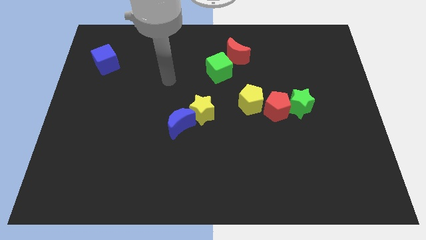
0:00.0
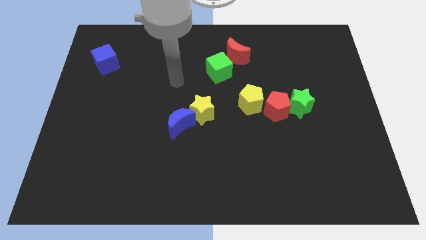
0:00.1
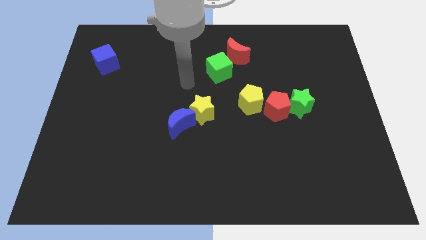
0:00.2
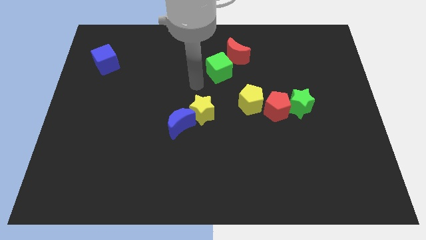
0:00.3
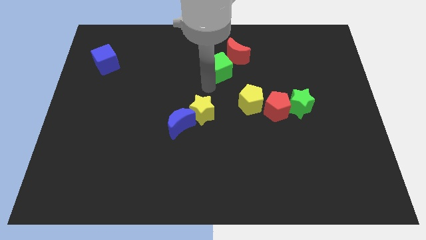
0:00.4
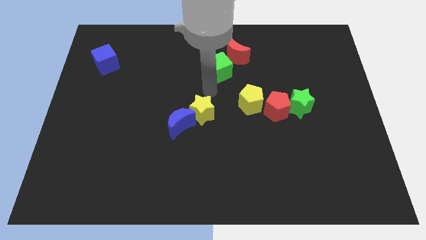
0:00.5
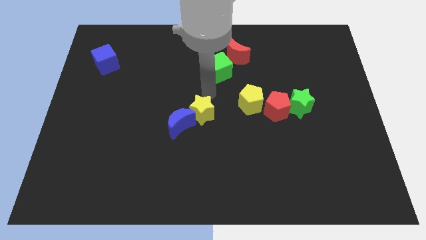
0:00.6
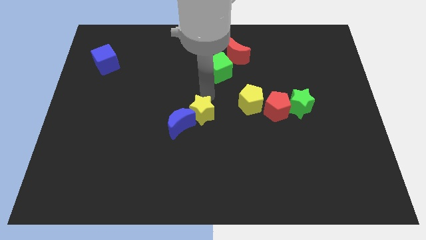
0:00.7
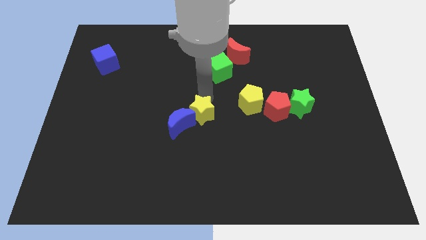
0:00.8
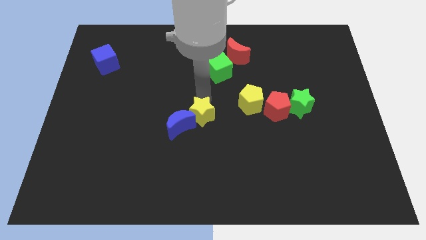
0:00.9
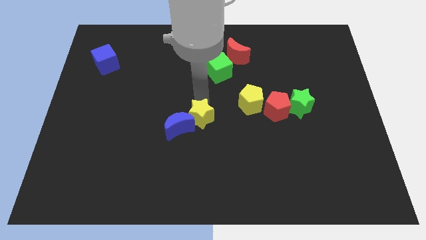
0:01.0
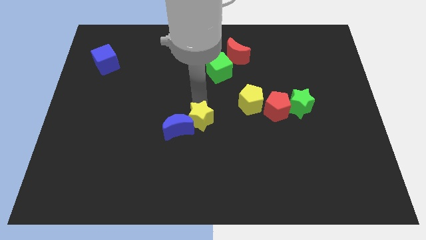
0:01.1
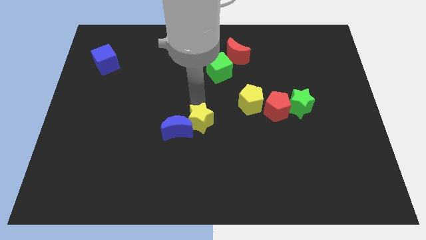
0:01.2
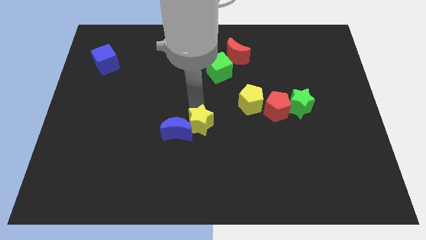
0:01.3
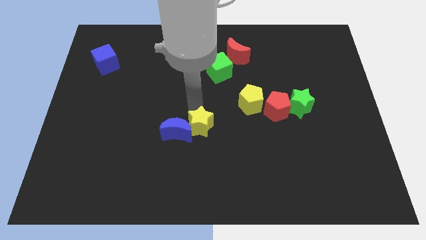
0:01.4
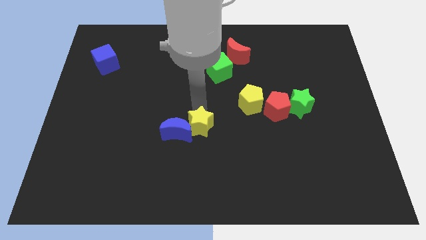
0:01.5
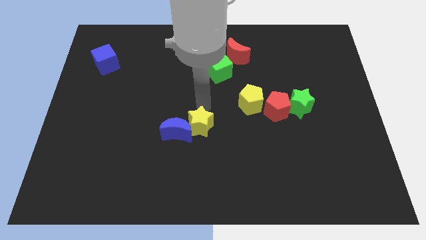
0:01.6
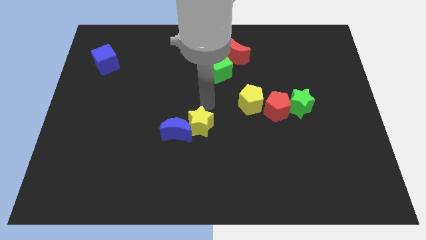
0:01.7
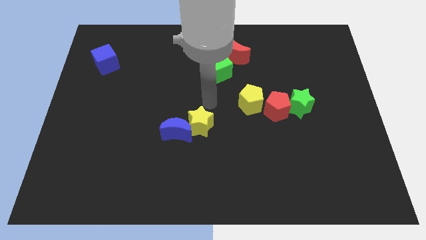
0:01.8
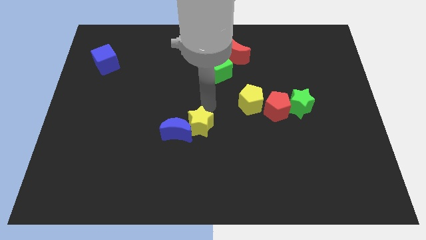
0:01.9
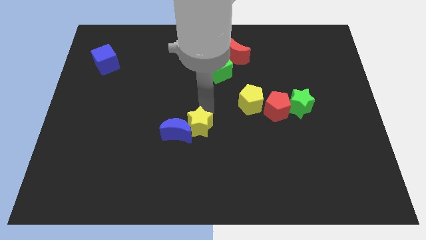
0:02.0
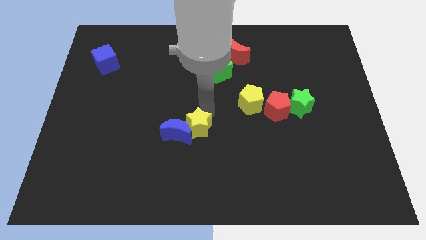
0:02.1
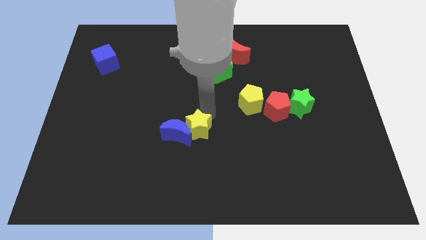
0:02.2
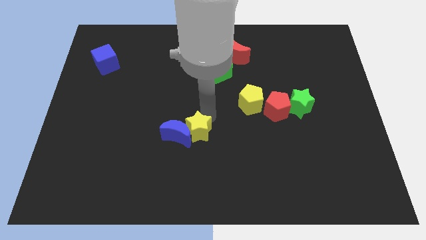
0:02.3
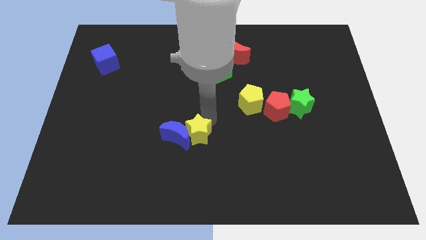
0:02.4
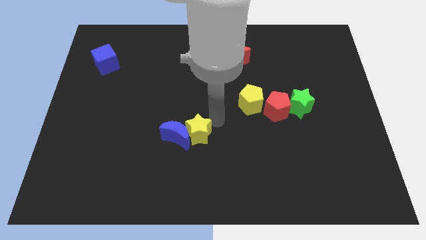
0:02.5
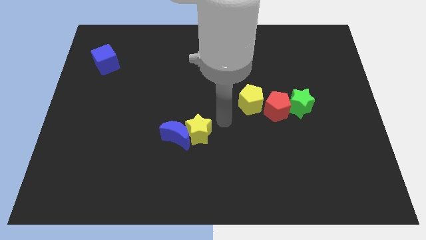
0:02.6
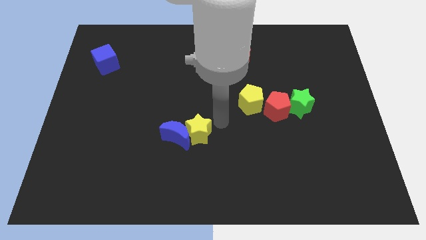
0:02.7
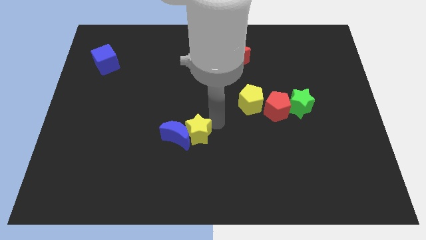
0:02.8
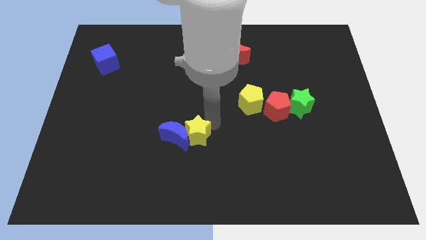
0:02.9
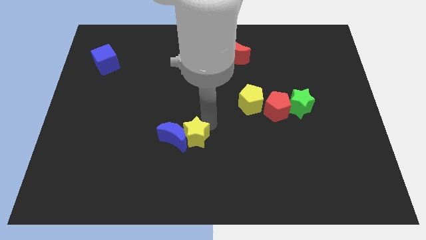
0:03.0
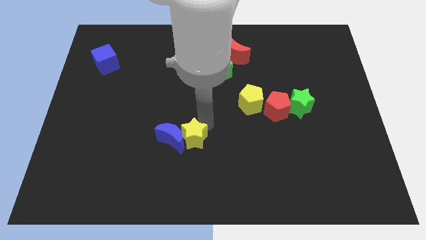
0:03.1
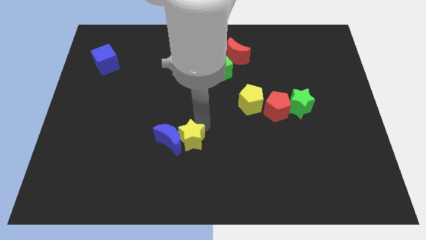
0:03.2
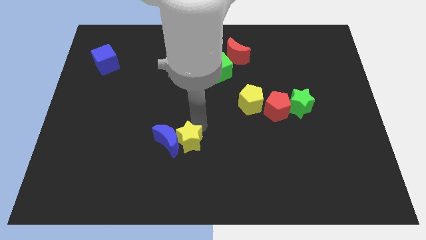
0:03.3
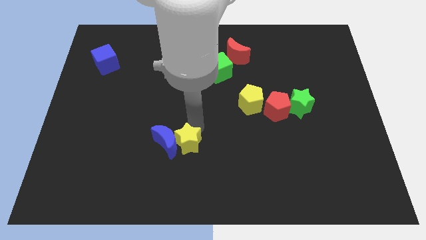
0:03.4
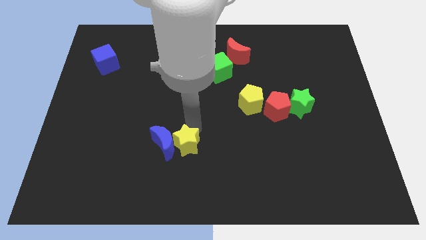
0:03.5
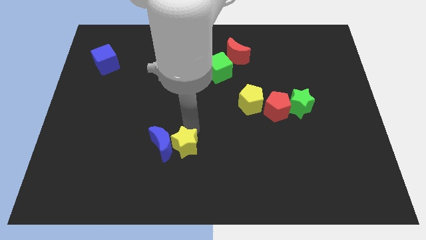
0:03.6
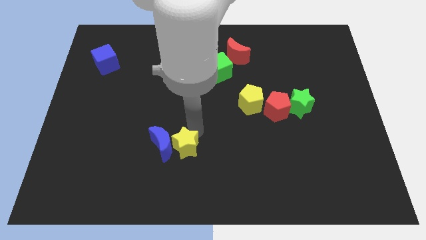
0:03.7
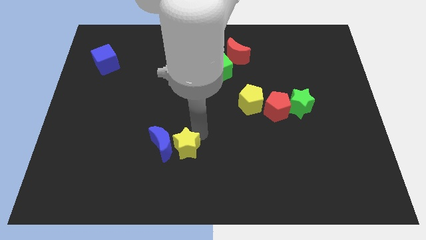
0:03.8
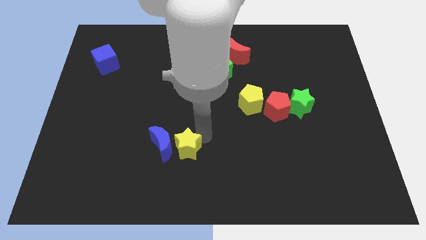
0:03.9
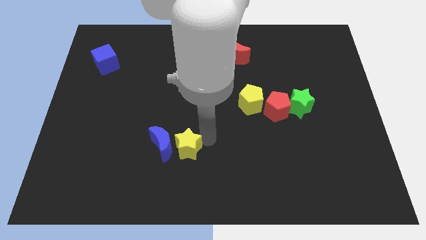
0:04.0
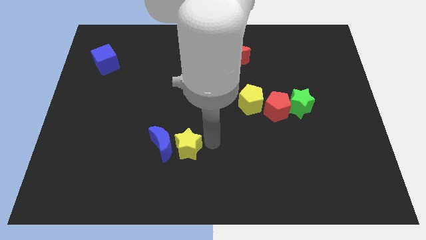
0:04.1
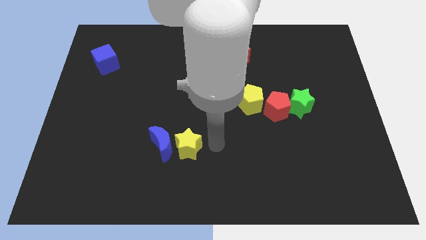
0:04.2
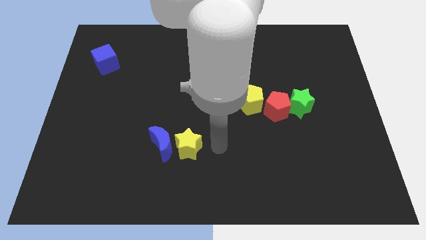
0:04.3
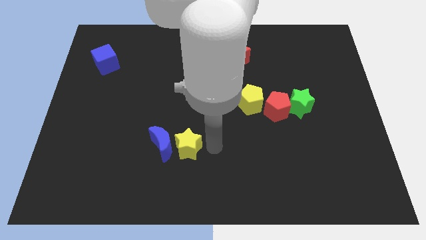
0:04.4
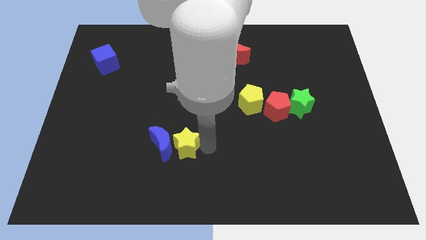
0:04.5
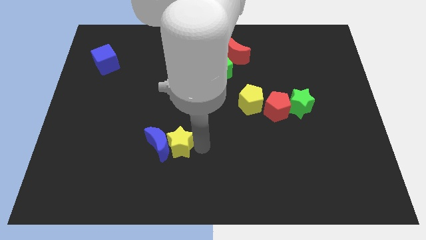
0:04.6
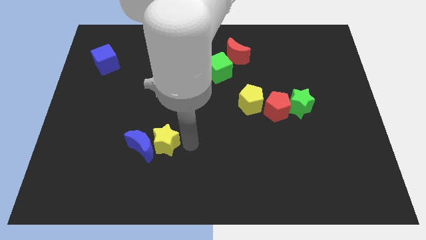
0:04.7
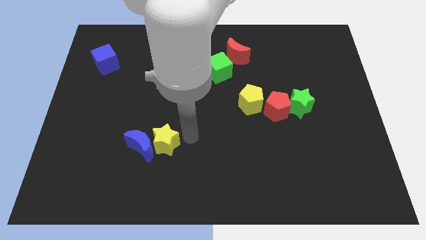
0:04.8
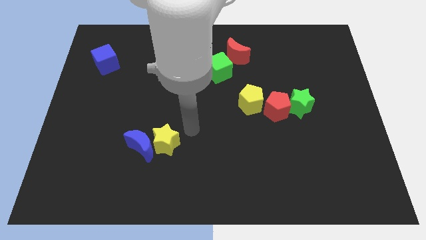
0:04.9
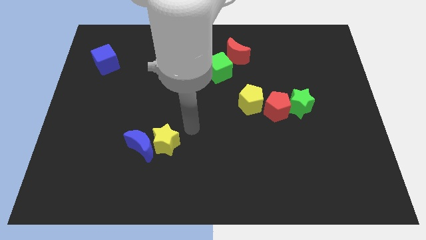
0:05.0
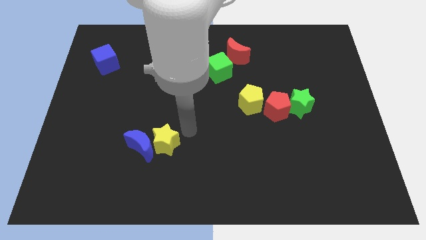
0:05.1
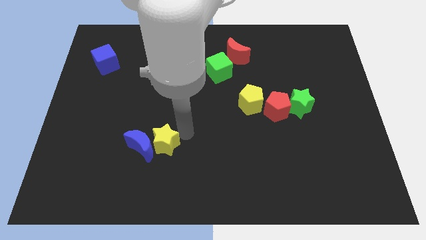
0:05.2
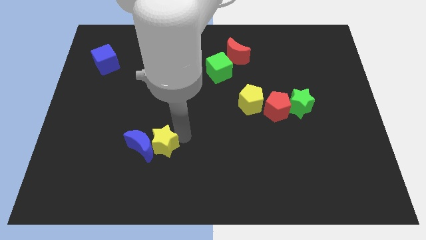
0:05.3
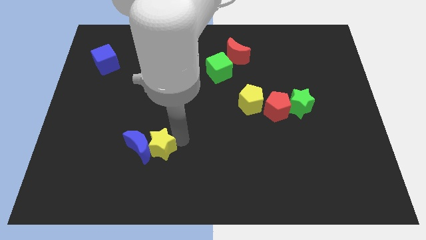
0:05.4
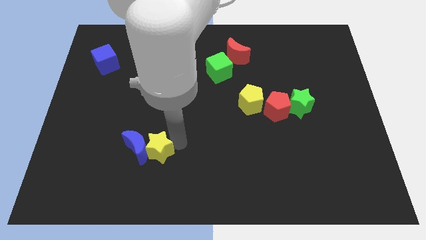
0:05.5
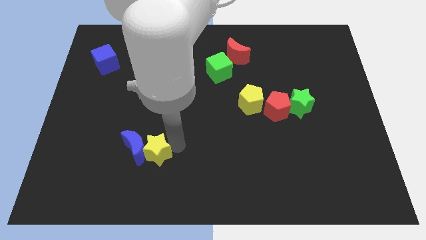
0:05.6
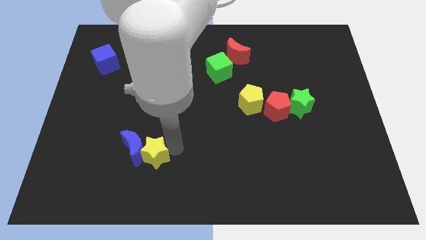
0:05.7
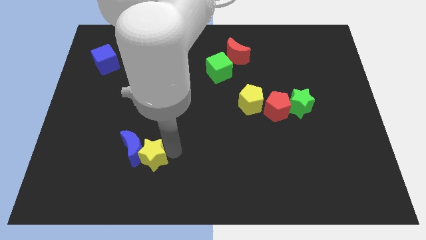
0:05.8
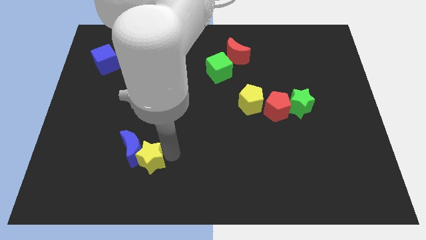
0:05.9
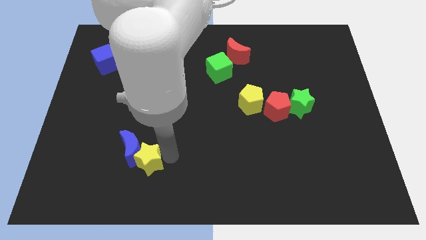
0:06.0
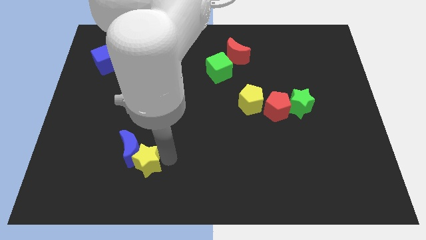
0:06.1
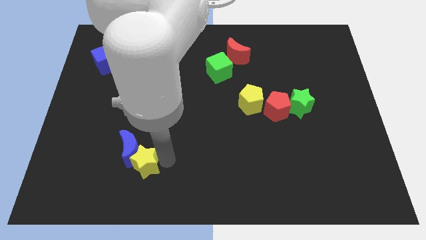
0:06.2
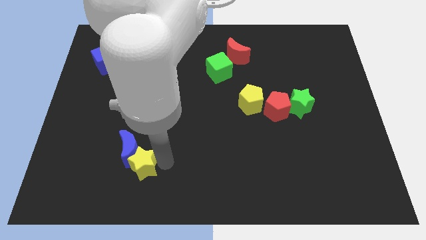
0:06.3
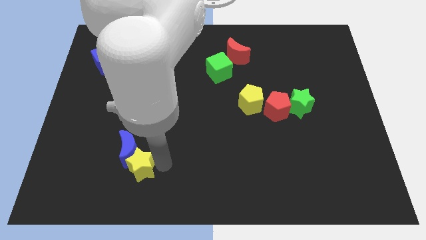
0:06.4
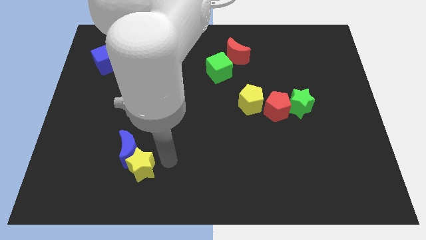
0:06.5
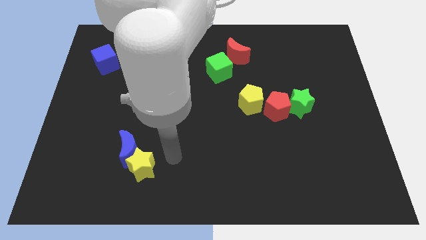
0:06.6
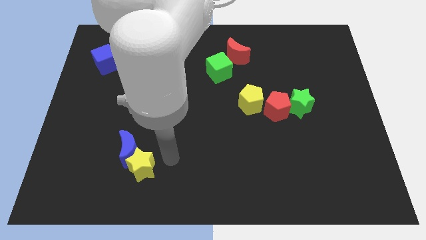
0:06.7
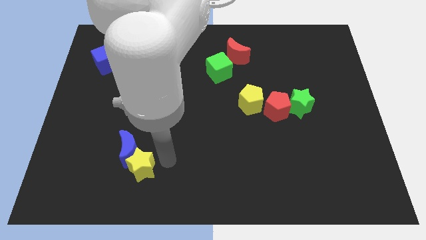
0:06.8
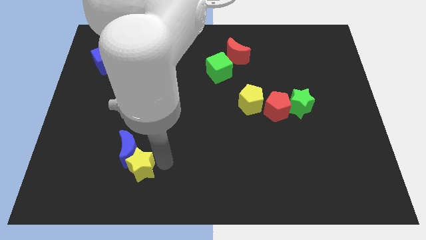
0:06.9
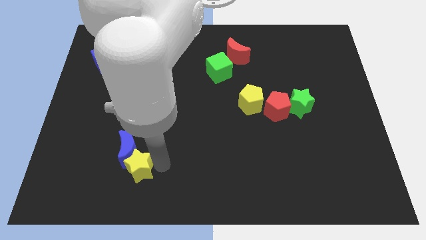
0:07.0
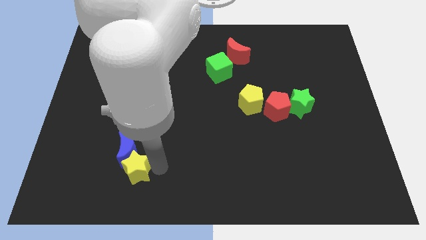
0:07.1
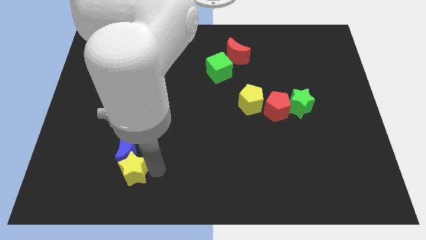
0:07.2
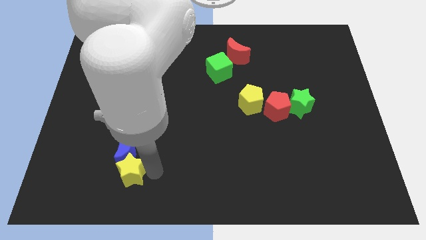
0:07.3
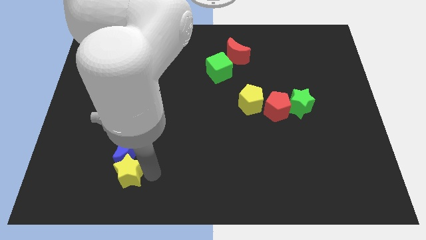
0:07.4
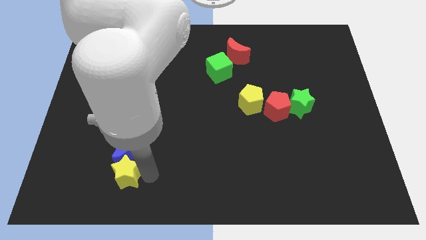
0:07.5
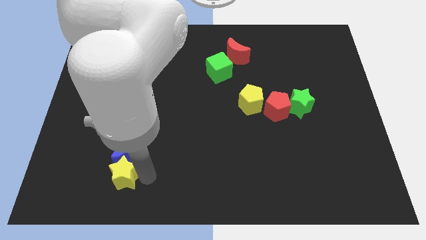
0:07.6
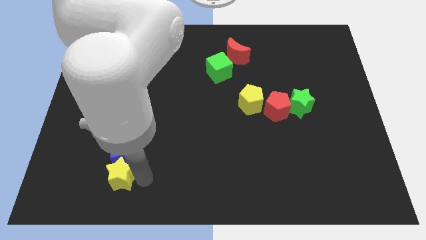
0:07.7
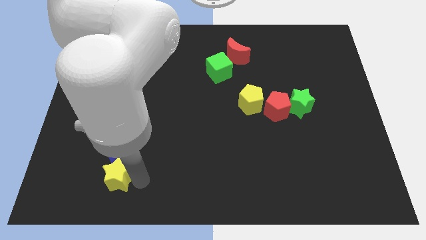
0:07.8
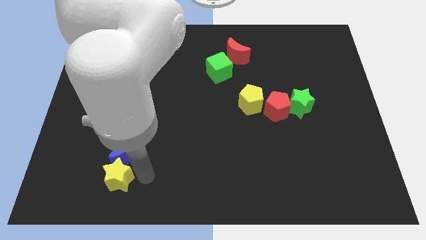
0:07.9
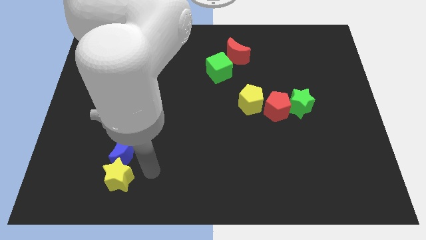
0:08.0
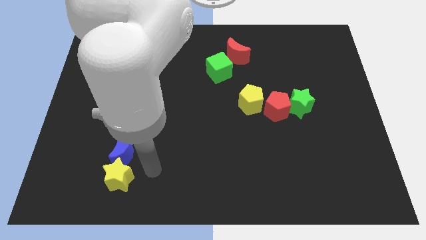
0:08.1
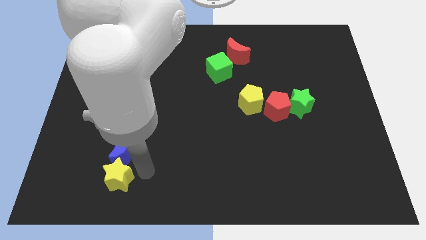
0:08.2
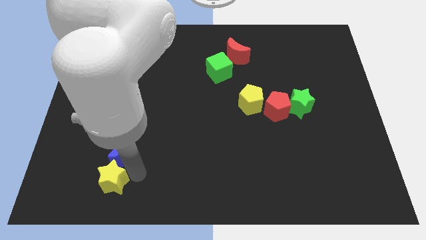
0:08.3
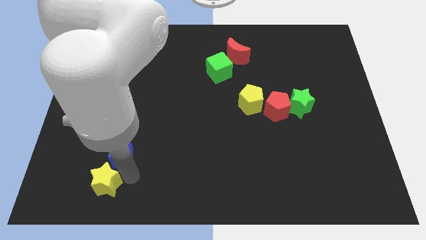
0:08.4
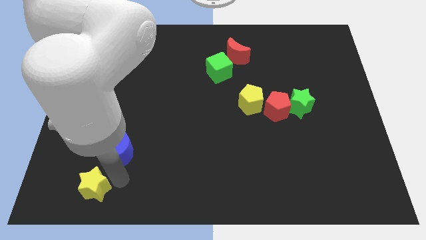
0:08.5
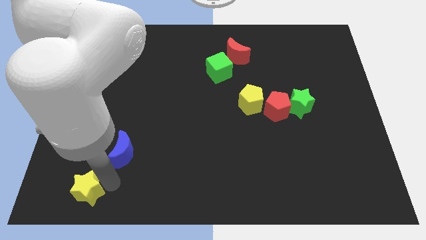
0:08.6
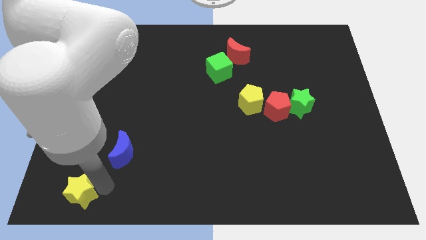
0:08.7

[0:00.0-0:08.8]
push the yellow star to the bottom left
